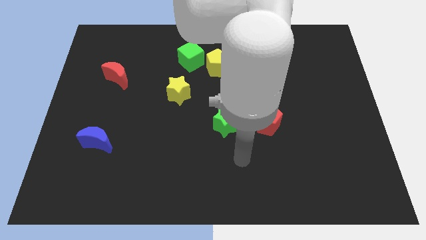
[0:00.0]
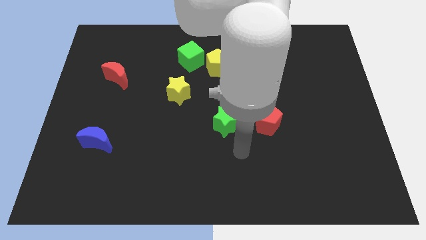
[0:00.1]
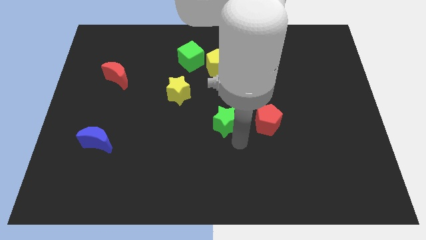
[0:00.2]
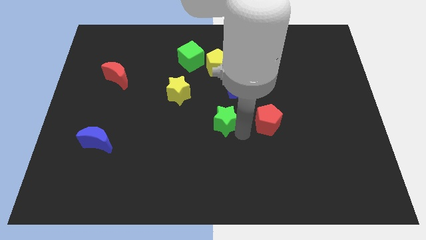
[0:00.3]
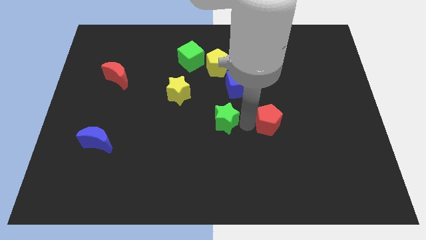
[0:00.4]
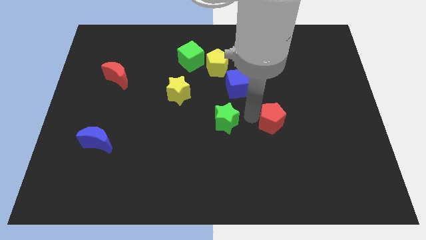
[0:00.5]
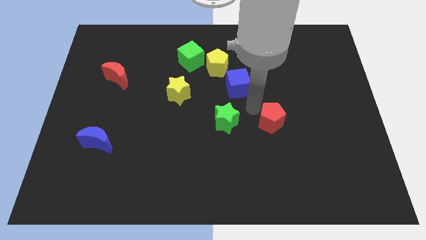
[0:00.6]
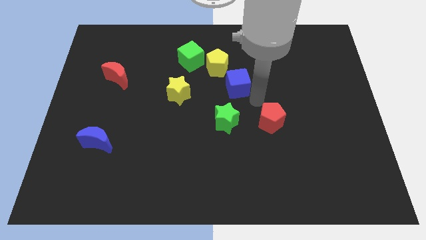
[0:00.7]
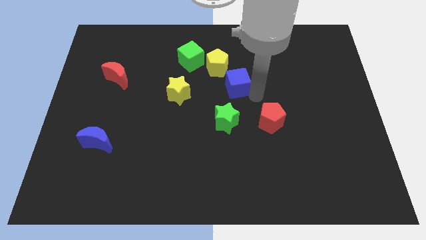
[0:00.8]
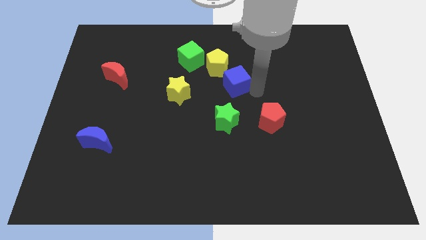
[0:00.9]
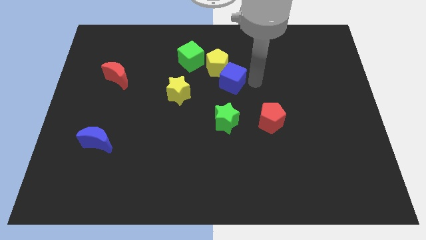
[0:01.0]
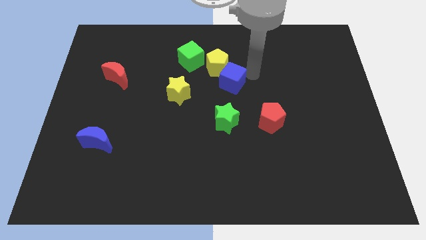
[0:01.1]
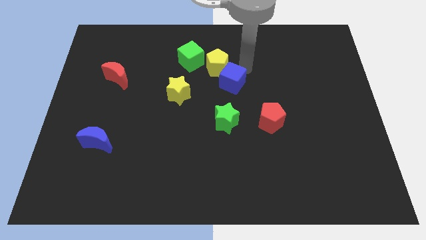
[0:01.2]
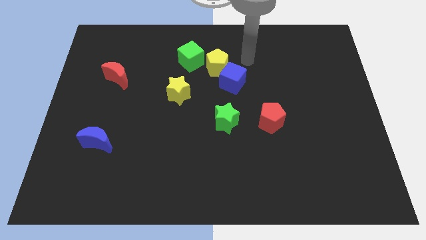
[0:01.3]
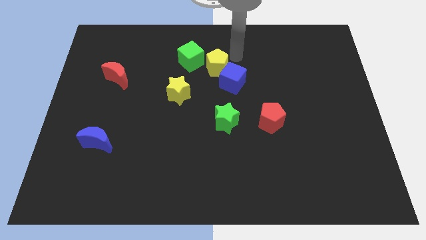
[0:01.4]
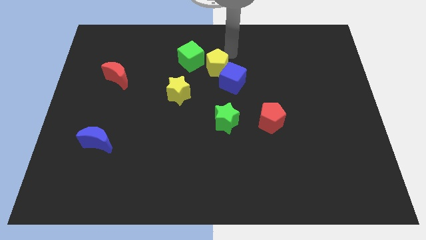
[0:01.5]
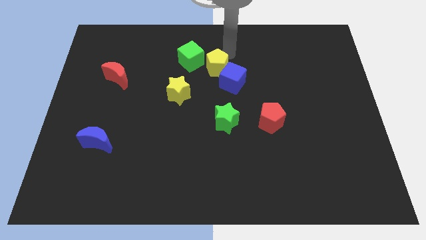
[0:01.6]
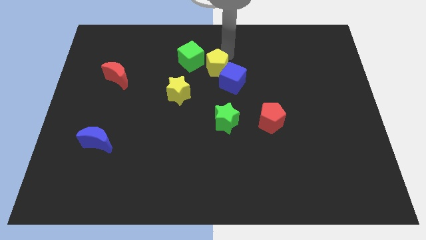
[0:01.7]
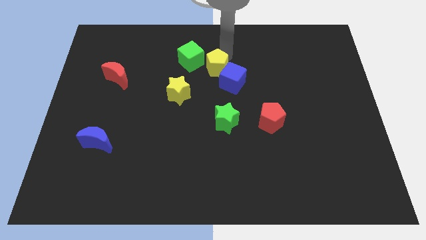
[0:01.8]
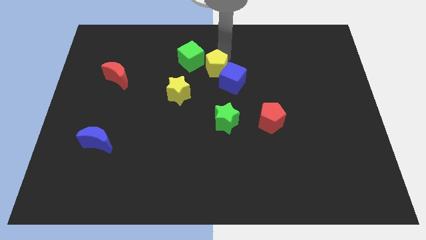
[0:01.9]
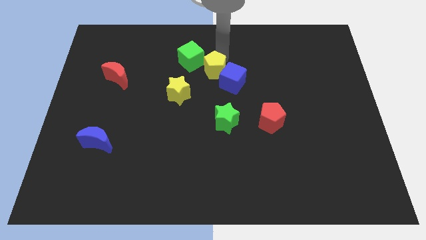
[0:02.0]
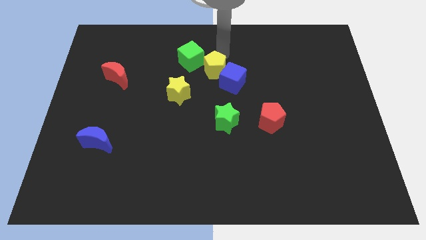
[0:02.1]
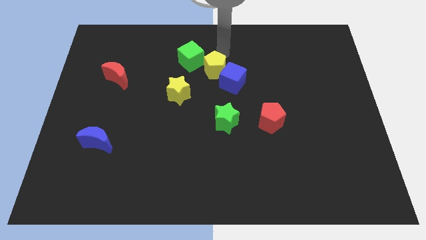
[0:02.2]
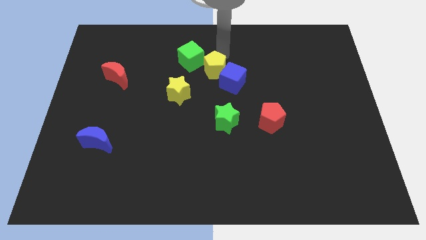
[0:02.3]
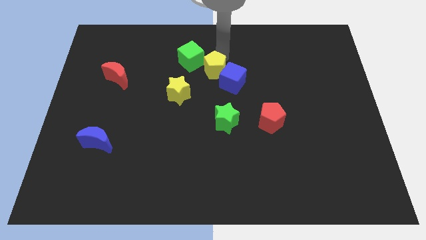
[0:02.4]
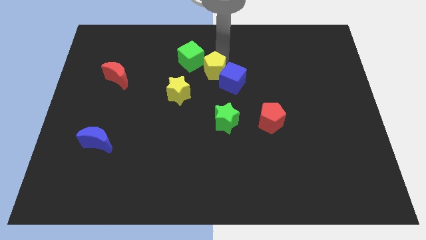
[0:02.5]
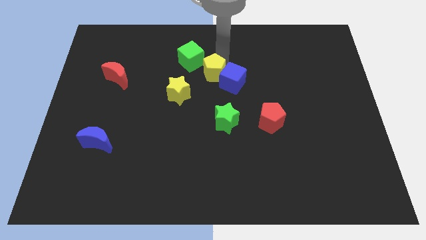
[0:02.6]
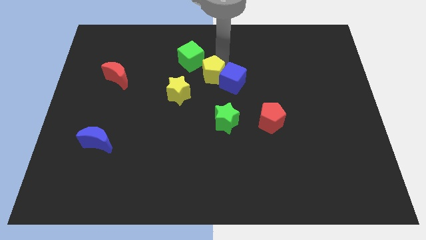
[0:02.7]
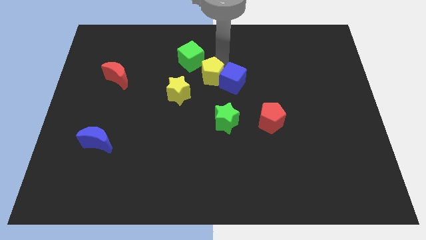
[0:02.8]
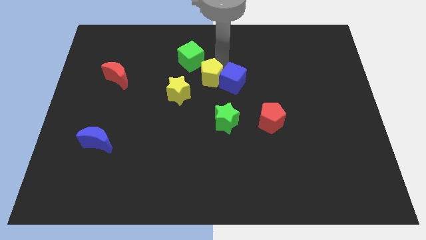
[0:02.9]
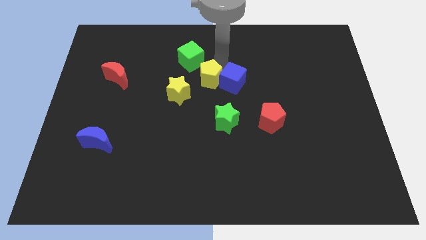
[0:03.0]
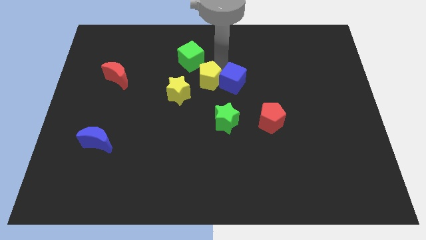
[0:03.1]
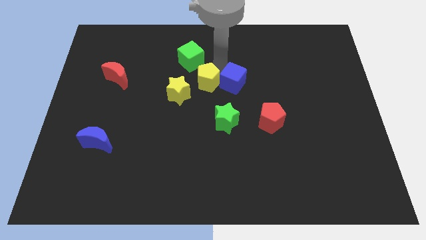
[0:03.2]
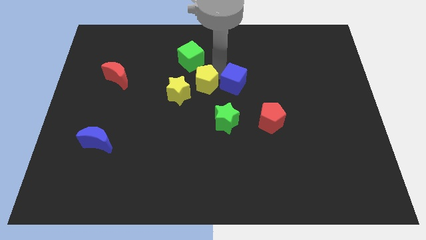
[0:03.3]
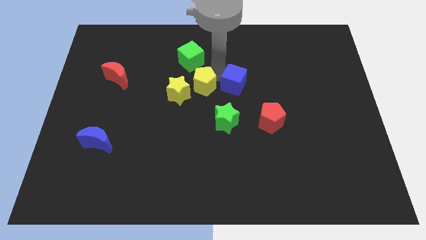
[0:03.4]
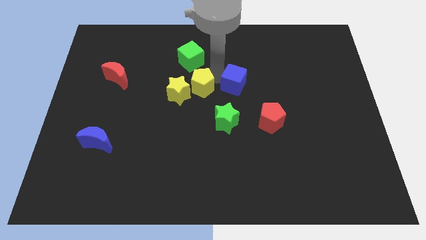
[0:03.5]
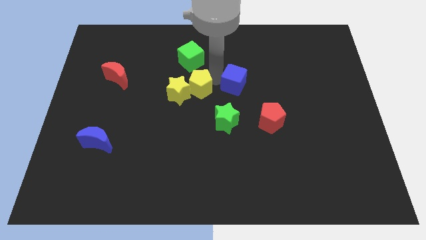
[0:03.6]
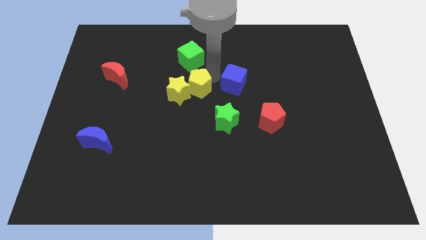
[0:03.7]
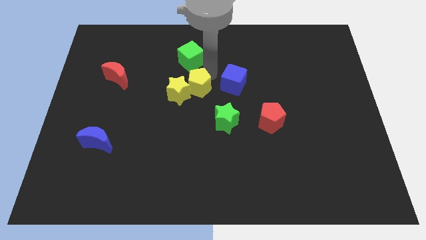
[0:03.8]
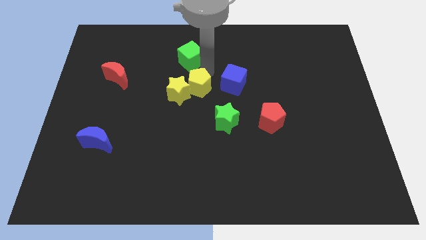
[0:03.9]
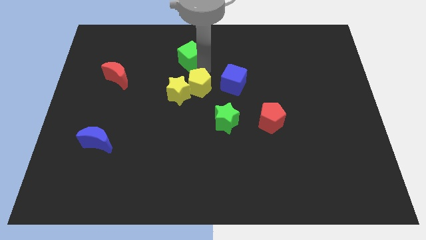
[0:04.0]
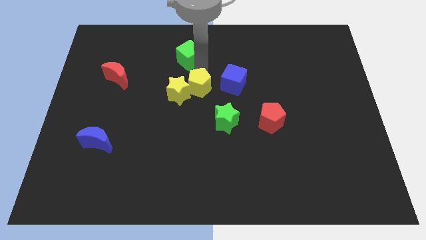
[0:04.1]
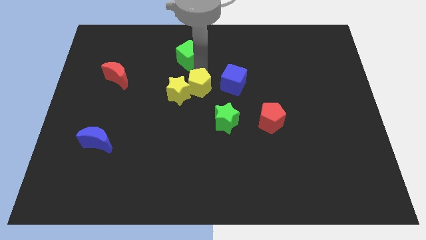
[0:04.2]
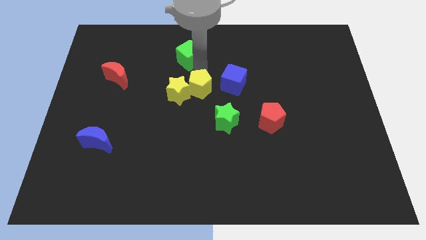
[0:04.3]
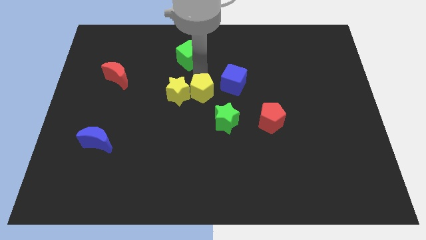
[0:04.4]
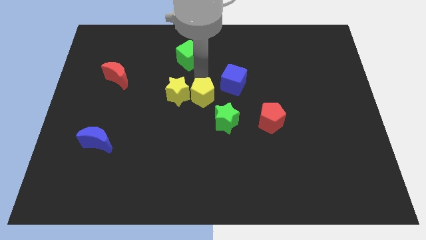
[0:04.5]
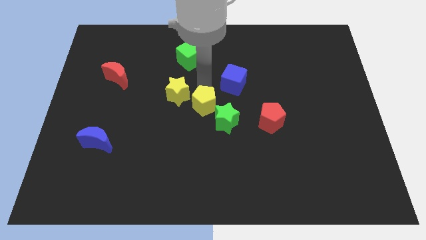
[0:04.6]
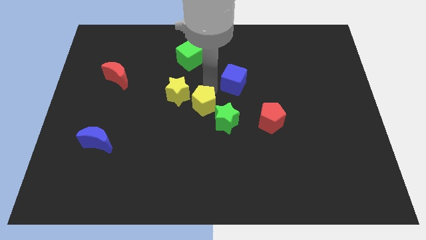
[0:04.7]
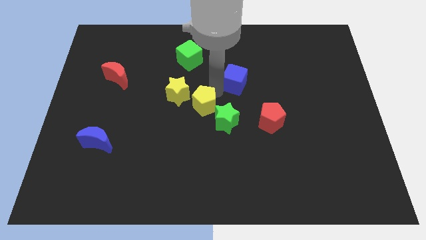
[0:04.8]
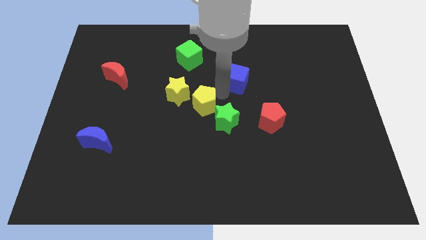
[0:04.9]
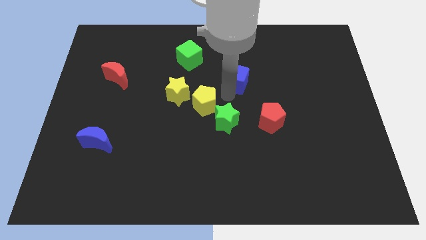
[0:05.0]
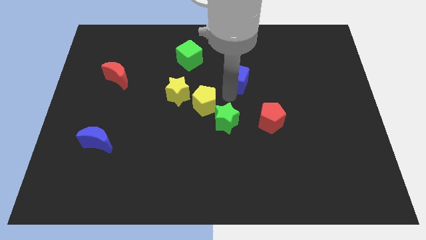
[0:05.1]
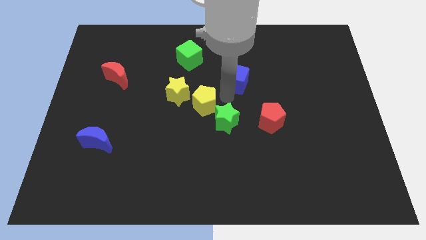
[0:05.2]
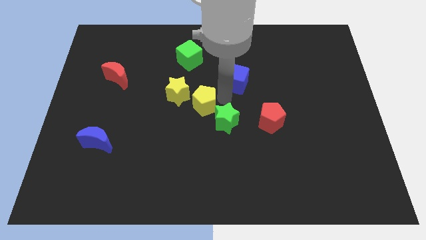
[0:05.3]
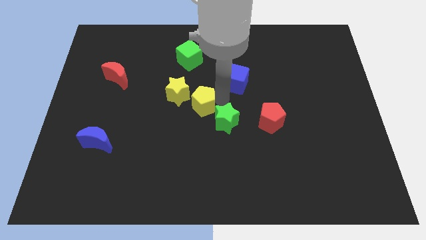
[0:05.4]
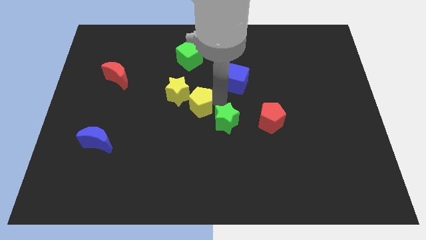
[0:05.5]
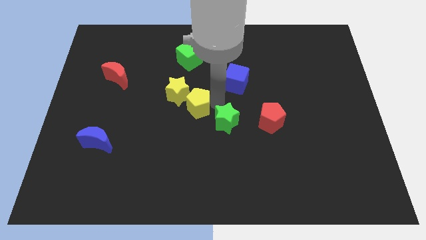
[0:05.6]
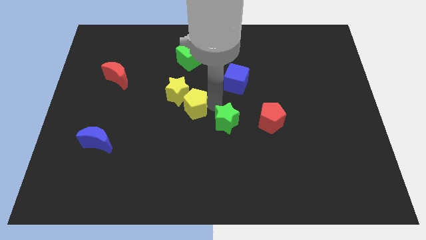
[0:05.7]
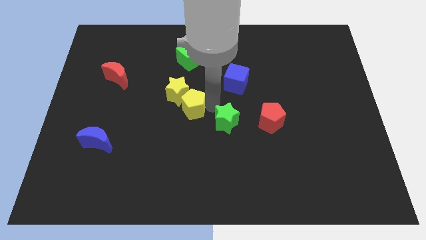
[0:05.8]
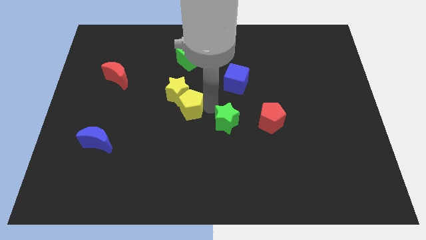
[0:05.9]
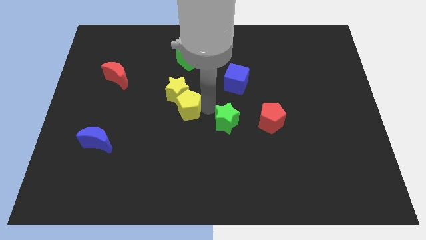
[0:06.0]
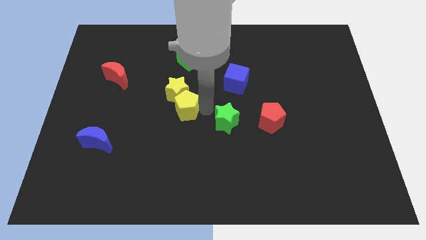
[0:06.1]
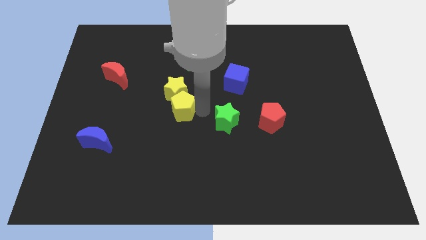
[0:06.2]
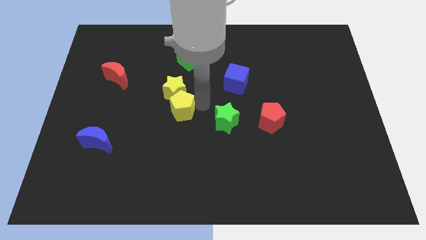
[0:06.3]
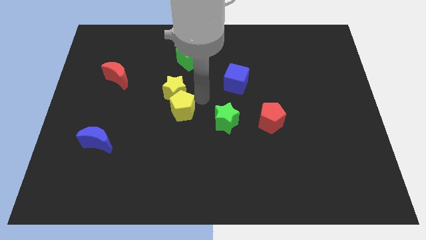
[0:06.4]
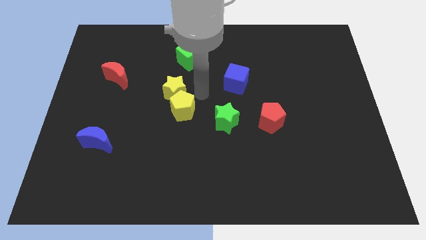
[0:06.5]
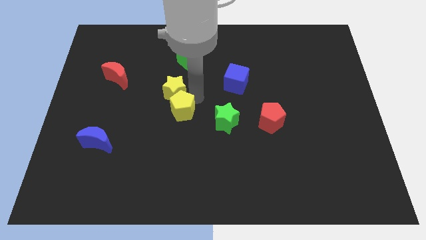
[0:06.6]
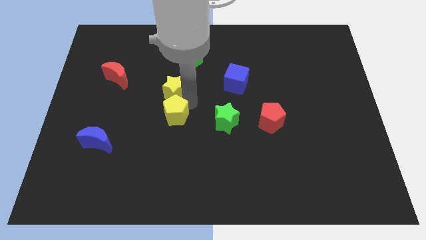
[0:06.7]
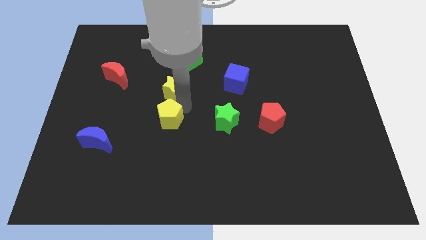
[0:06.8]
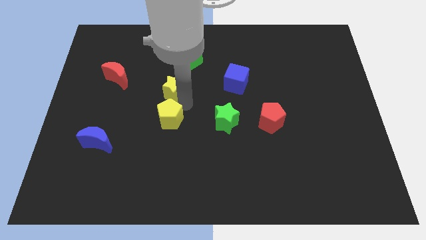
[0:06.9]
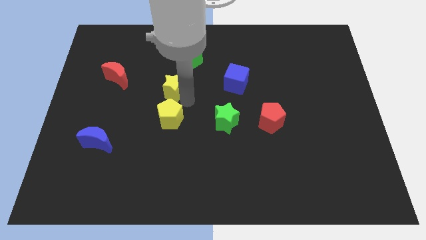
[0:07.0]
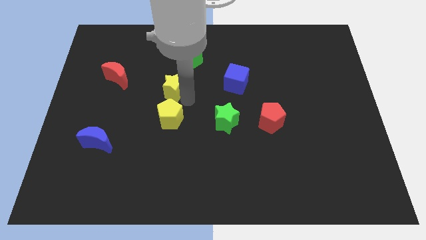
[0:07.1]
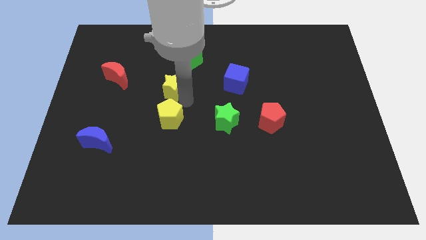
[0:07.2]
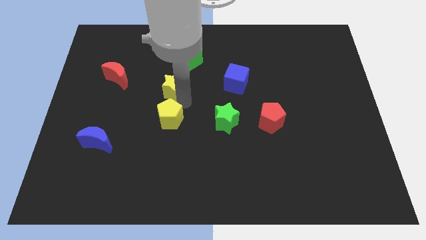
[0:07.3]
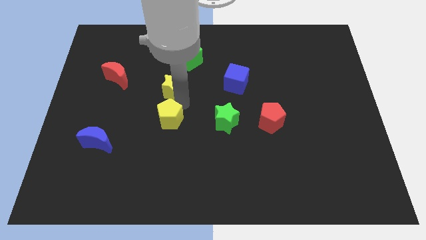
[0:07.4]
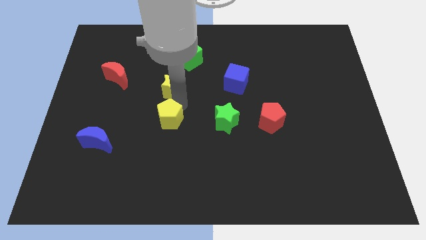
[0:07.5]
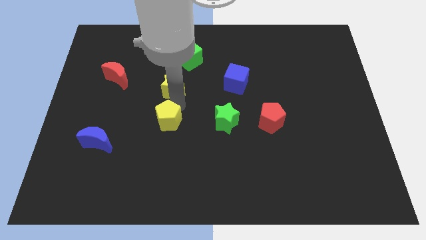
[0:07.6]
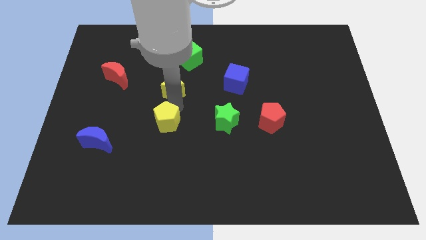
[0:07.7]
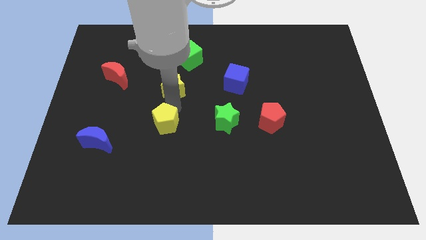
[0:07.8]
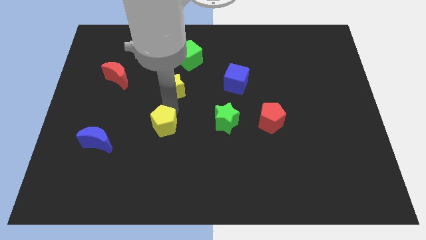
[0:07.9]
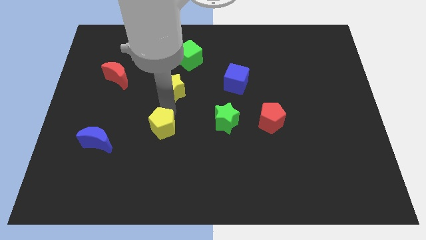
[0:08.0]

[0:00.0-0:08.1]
push the yellow pentagon to the right side of the blue moon
